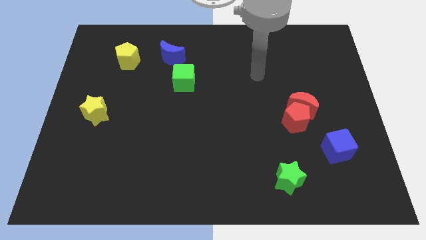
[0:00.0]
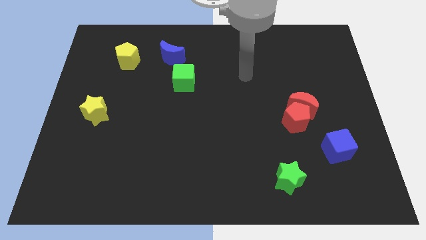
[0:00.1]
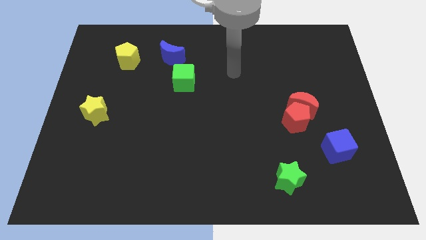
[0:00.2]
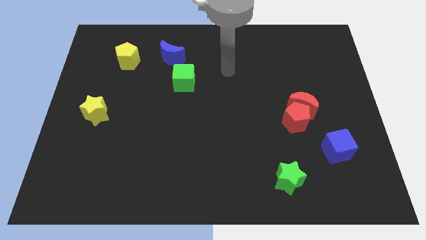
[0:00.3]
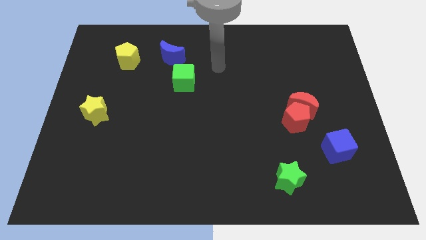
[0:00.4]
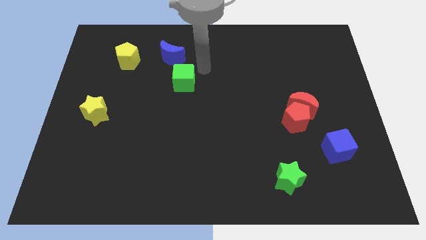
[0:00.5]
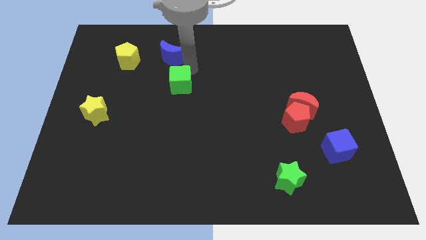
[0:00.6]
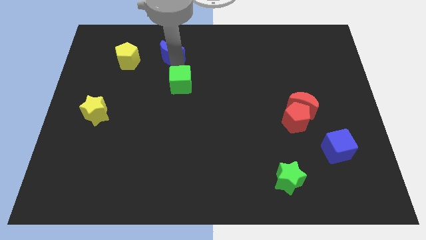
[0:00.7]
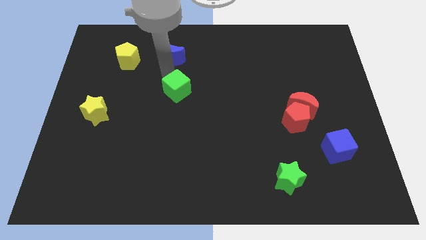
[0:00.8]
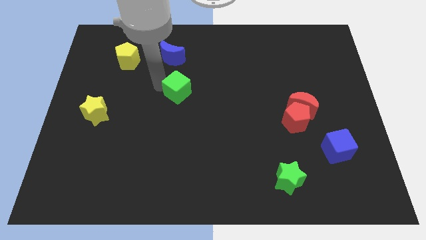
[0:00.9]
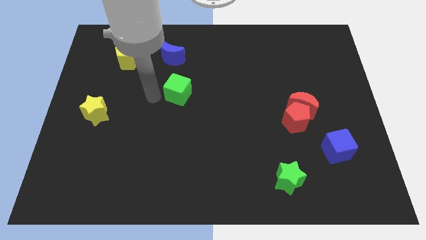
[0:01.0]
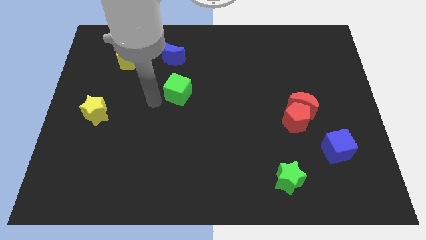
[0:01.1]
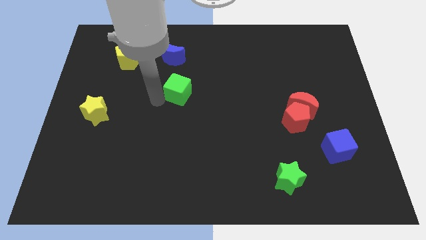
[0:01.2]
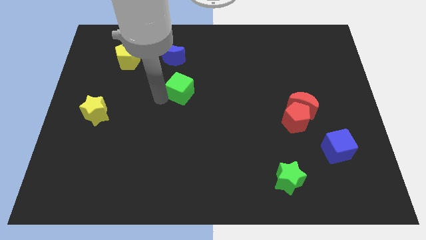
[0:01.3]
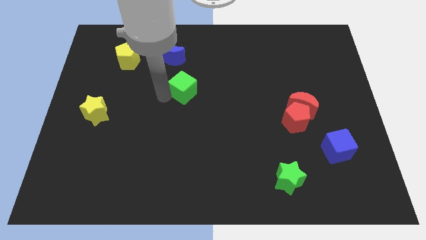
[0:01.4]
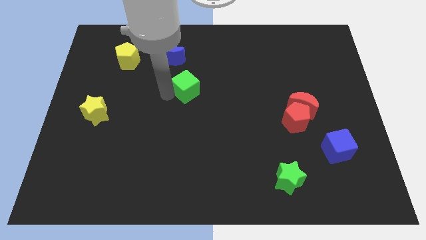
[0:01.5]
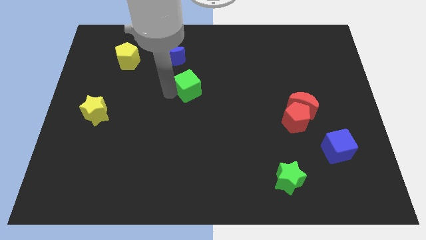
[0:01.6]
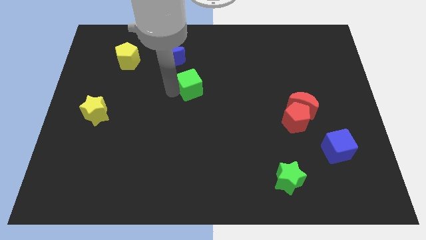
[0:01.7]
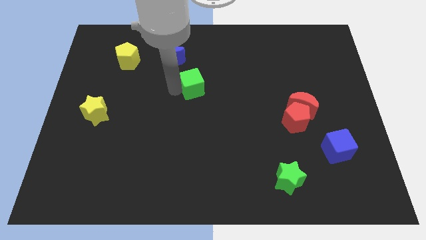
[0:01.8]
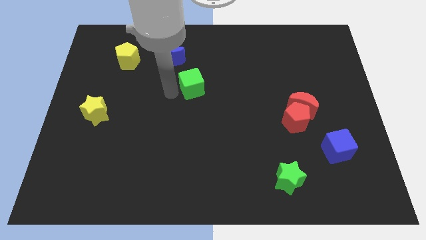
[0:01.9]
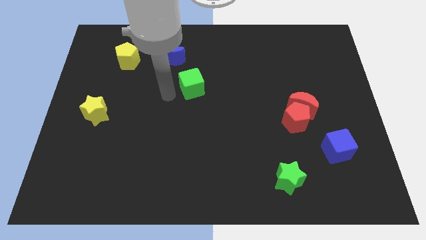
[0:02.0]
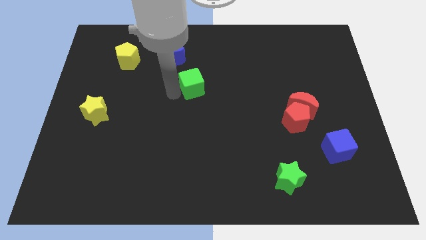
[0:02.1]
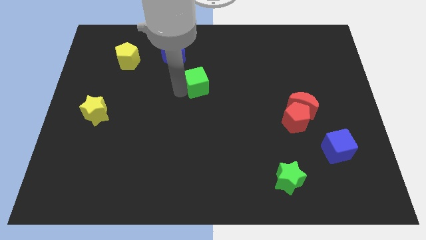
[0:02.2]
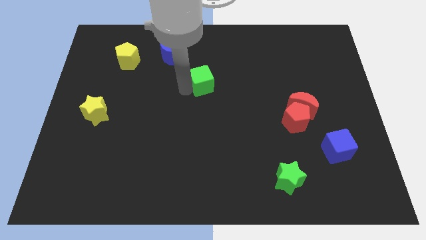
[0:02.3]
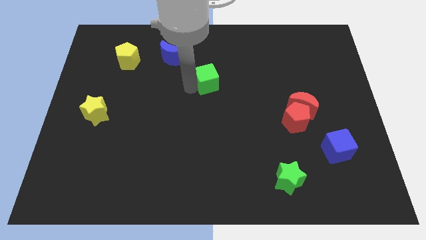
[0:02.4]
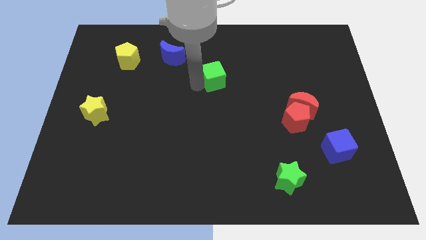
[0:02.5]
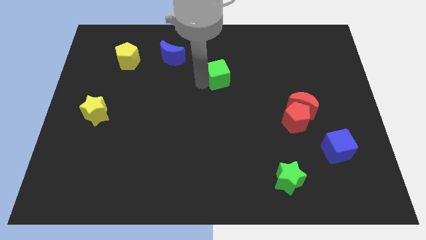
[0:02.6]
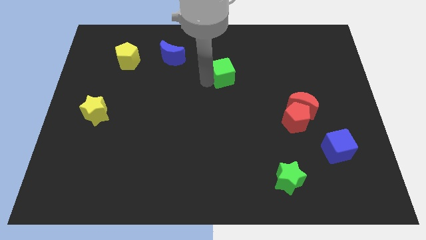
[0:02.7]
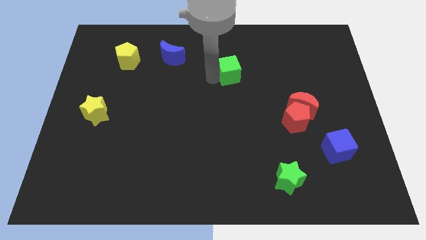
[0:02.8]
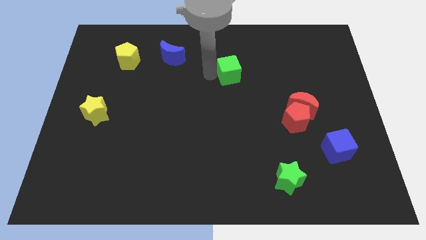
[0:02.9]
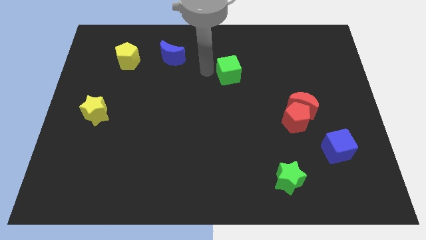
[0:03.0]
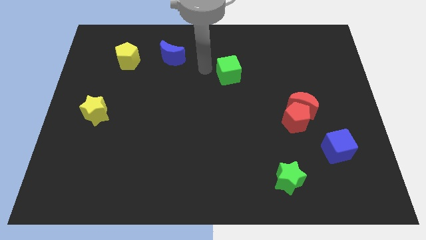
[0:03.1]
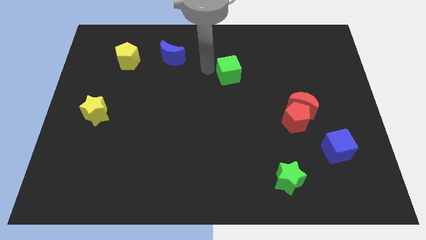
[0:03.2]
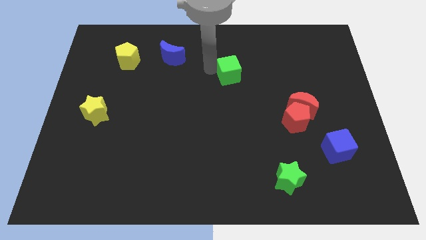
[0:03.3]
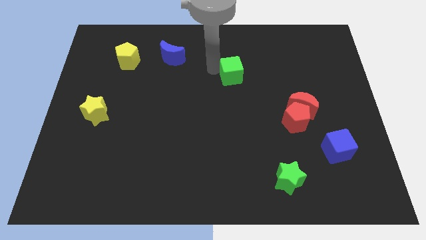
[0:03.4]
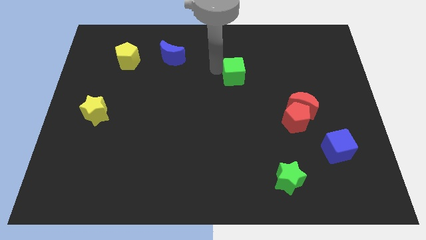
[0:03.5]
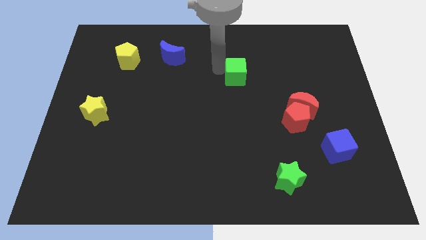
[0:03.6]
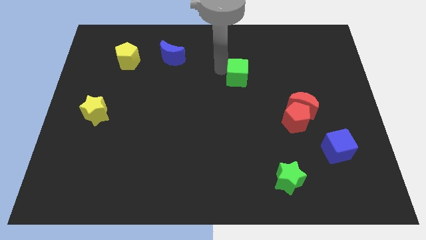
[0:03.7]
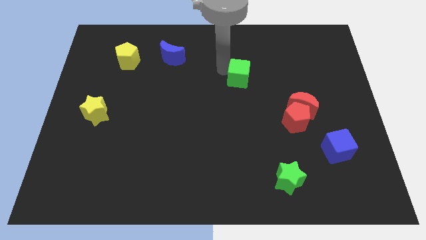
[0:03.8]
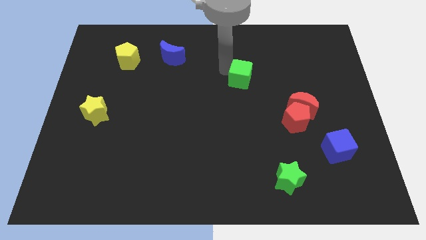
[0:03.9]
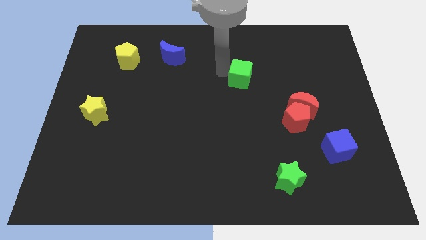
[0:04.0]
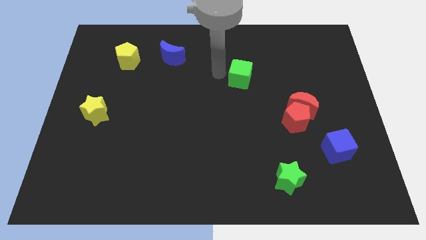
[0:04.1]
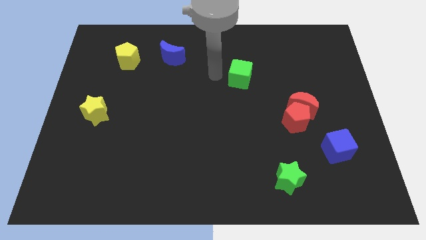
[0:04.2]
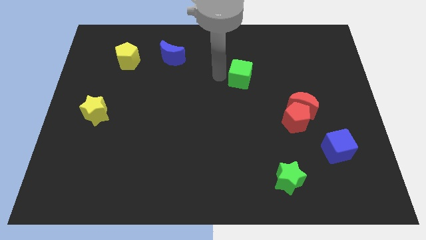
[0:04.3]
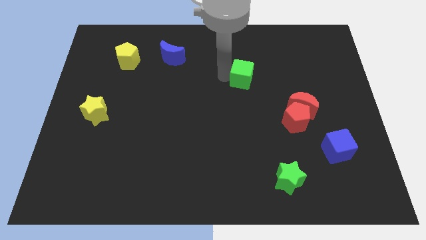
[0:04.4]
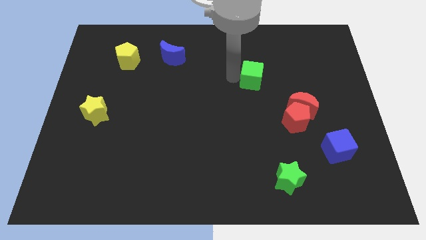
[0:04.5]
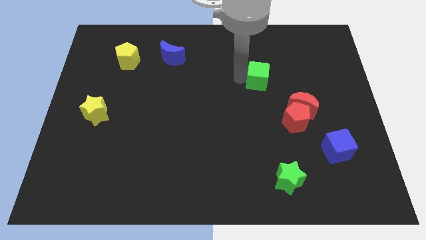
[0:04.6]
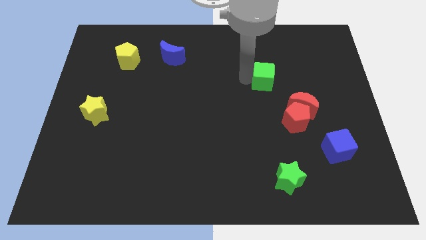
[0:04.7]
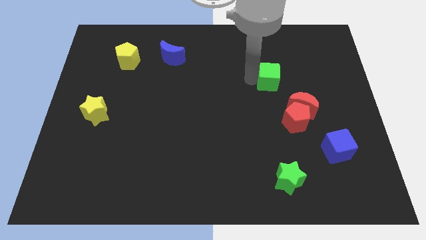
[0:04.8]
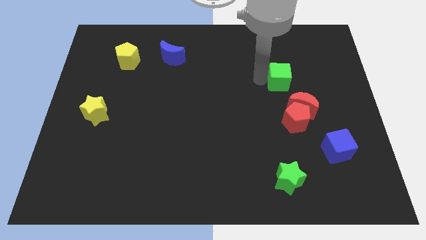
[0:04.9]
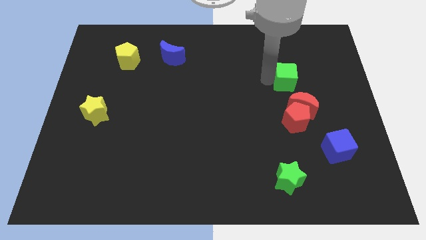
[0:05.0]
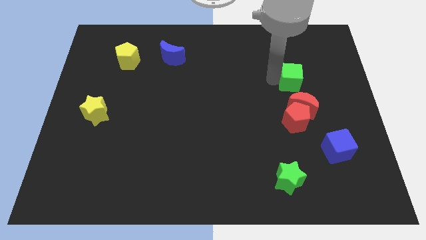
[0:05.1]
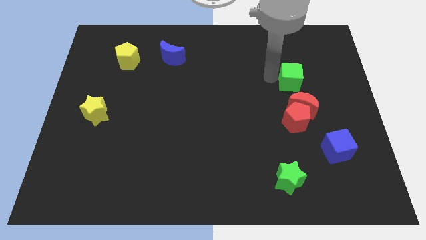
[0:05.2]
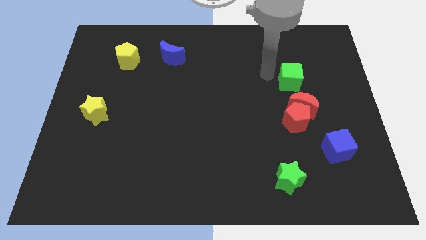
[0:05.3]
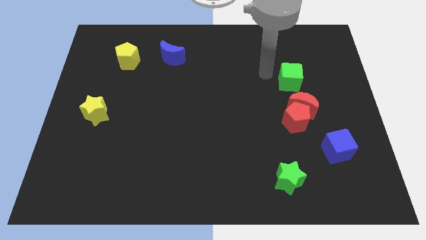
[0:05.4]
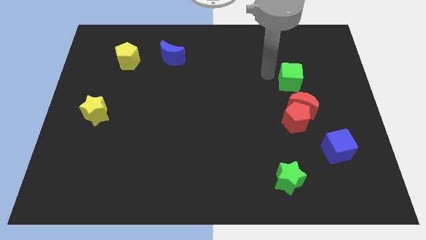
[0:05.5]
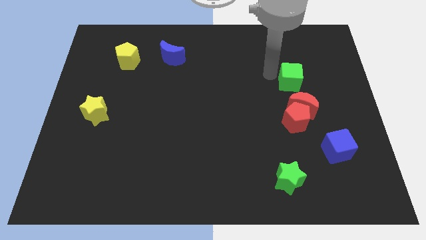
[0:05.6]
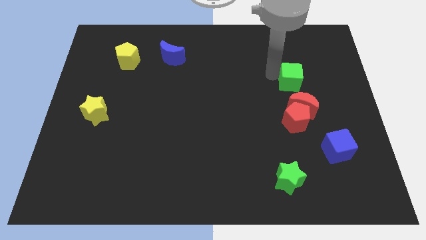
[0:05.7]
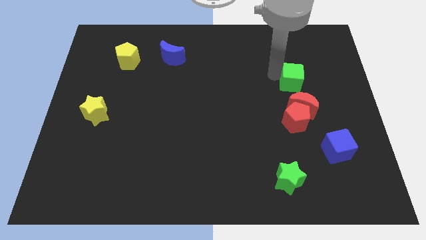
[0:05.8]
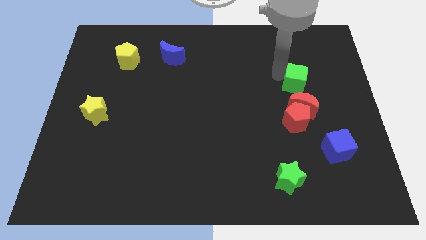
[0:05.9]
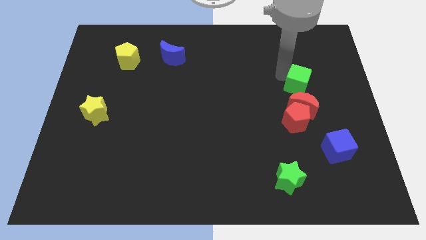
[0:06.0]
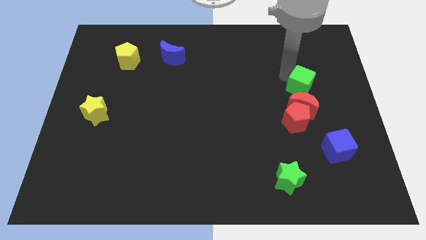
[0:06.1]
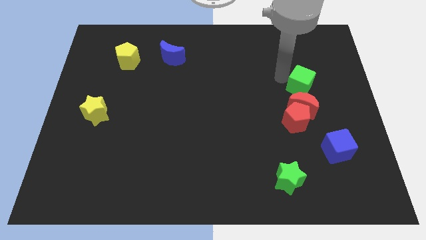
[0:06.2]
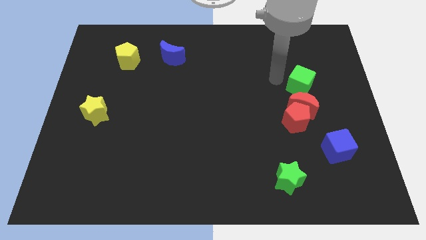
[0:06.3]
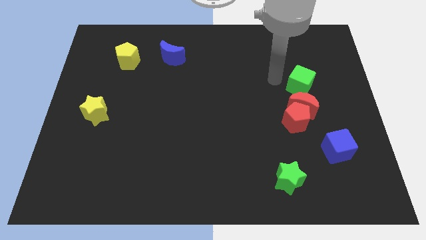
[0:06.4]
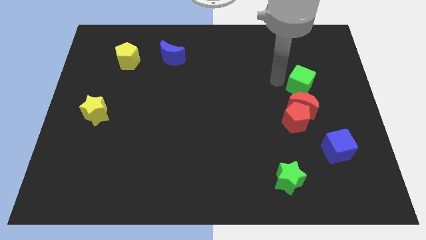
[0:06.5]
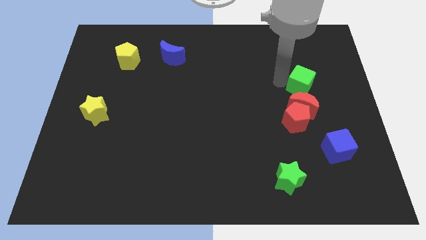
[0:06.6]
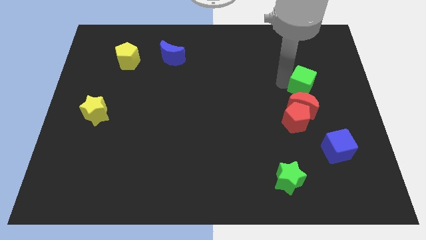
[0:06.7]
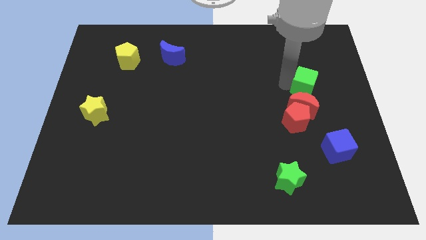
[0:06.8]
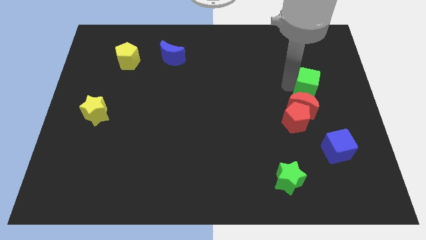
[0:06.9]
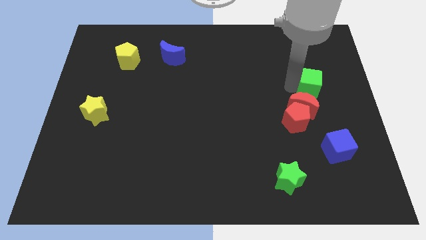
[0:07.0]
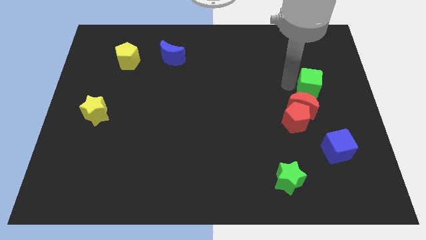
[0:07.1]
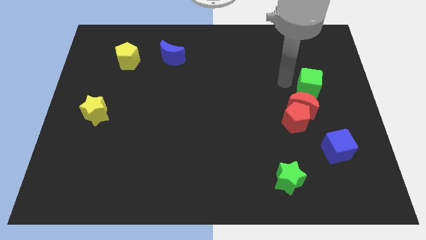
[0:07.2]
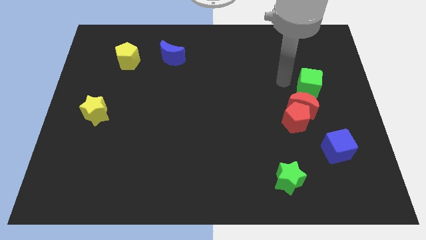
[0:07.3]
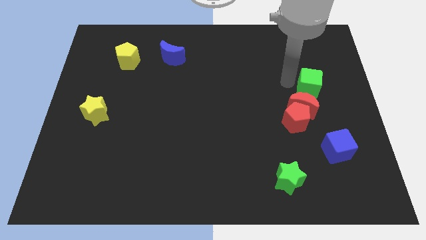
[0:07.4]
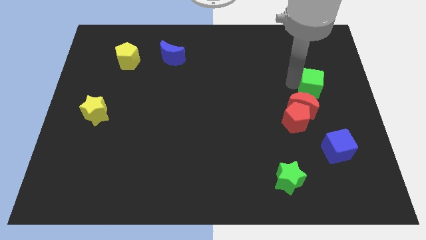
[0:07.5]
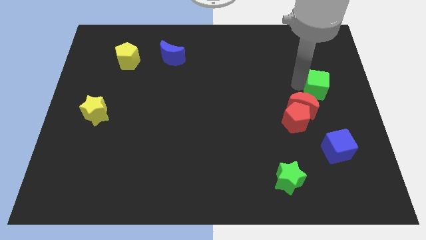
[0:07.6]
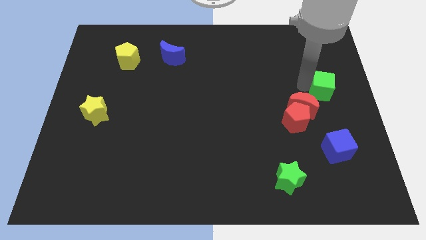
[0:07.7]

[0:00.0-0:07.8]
push the green cube to the right side of the board
